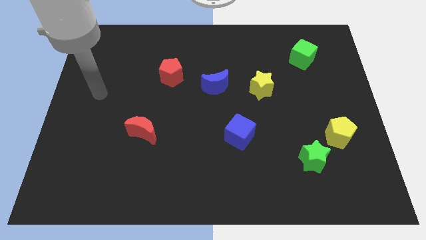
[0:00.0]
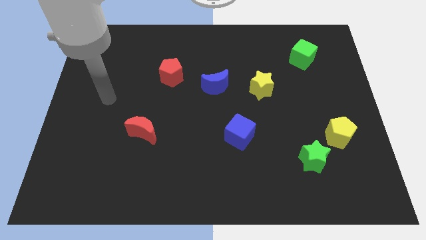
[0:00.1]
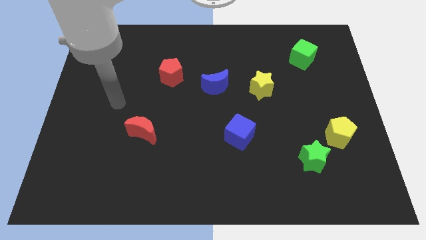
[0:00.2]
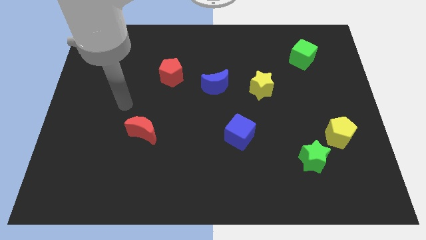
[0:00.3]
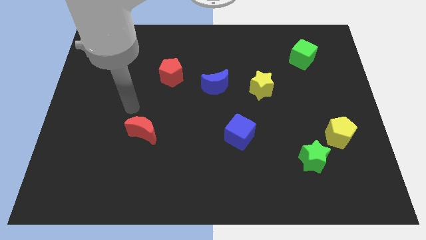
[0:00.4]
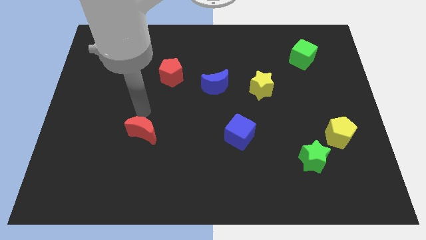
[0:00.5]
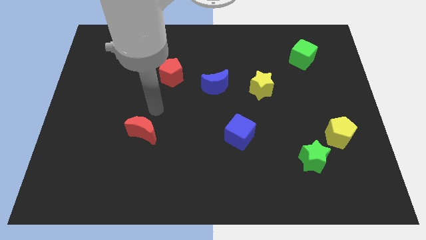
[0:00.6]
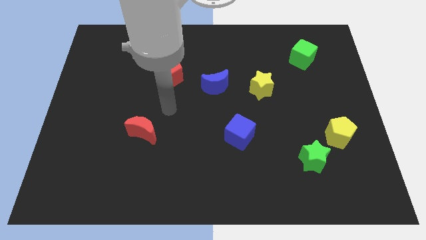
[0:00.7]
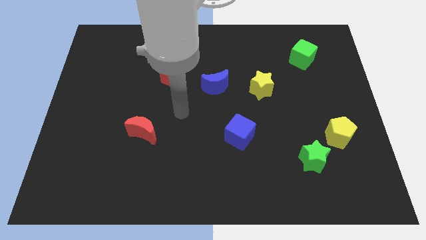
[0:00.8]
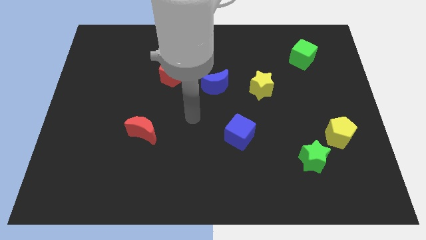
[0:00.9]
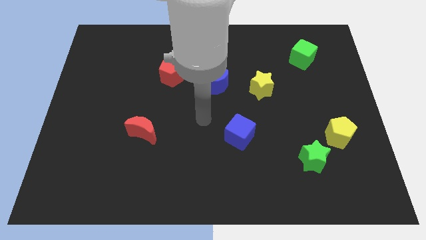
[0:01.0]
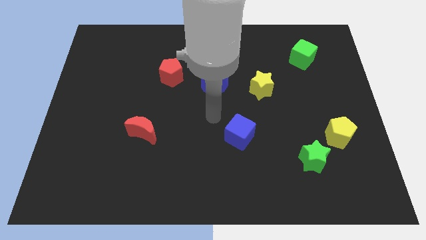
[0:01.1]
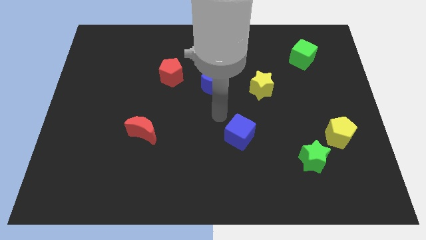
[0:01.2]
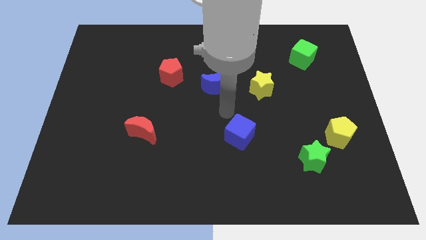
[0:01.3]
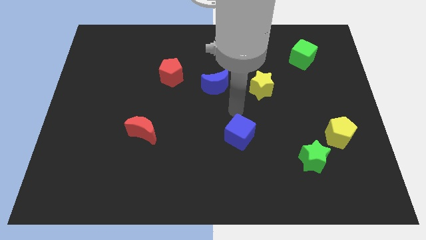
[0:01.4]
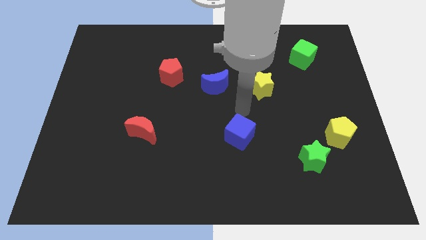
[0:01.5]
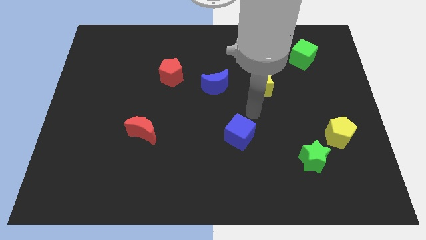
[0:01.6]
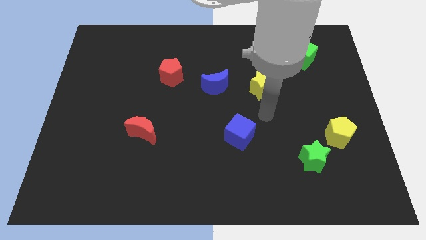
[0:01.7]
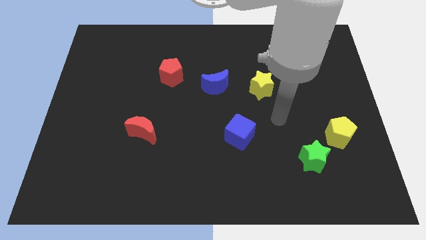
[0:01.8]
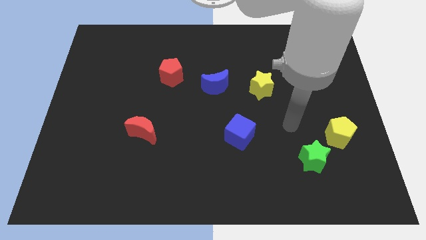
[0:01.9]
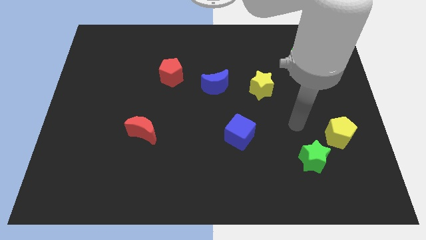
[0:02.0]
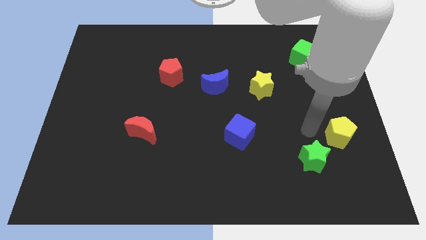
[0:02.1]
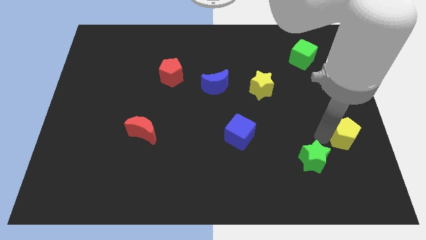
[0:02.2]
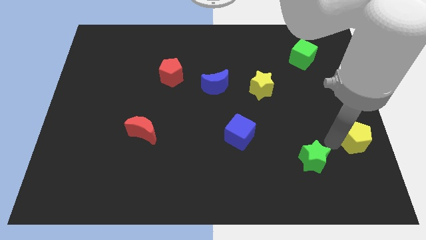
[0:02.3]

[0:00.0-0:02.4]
separate the green star from the yellow pentagon

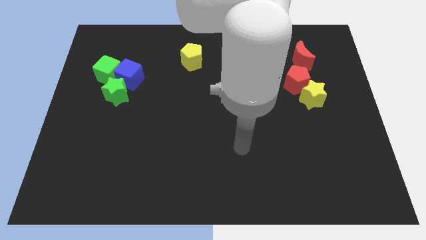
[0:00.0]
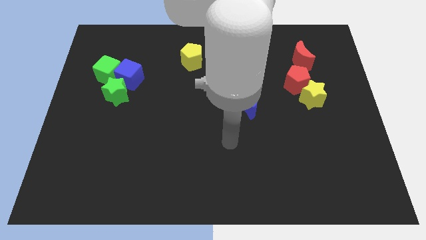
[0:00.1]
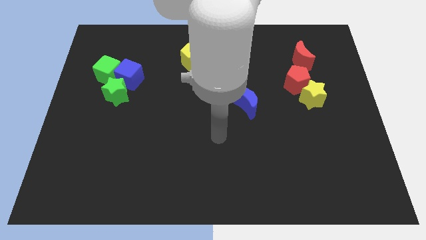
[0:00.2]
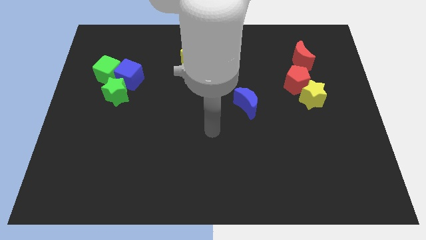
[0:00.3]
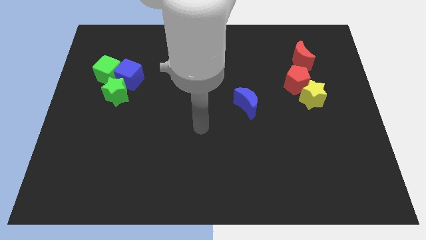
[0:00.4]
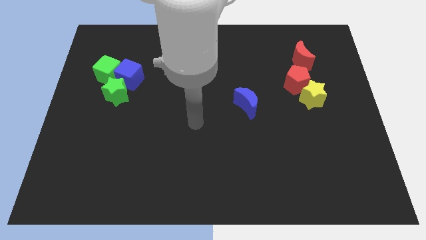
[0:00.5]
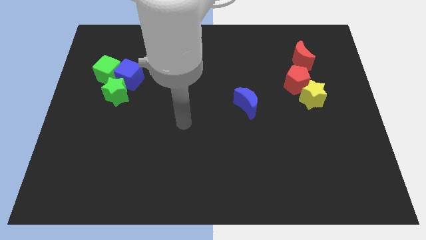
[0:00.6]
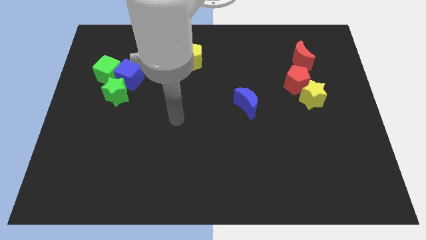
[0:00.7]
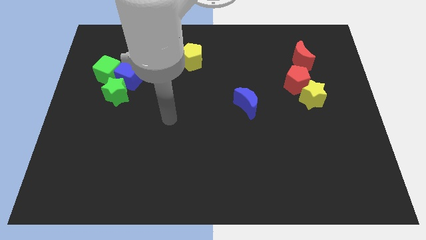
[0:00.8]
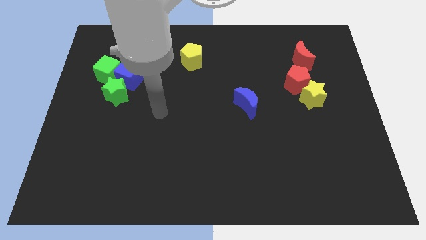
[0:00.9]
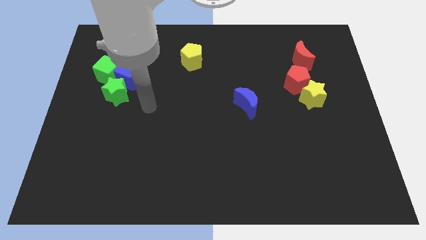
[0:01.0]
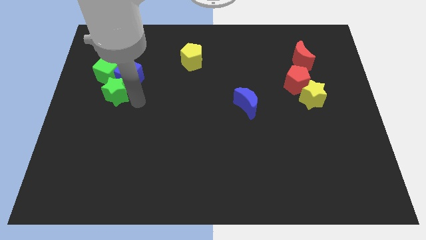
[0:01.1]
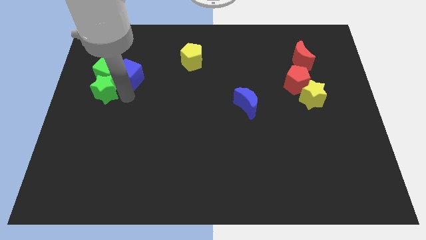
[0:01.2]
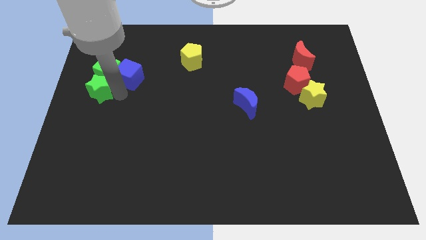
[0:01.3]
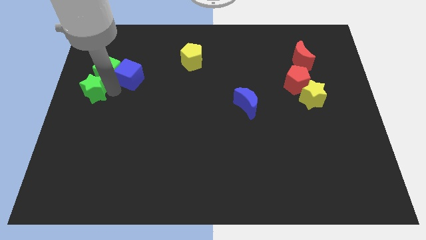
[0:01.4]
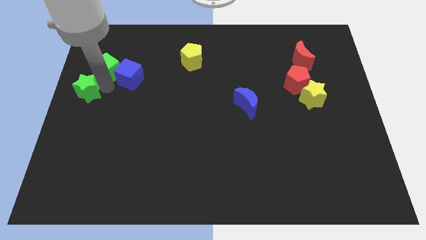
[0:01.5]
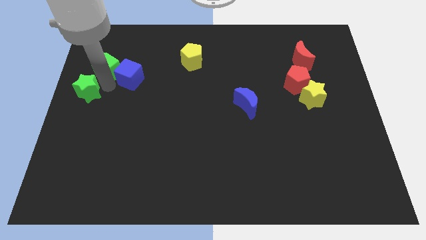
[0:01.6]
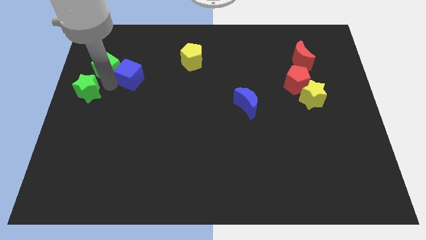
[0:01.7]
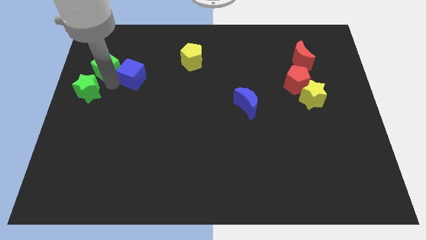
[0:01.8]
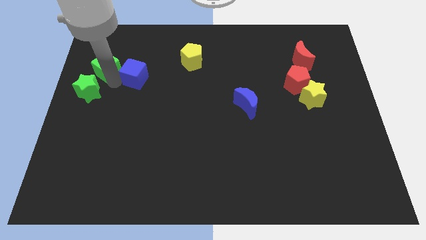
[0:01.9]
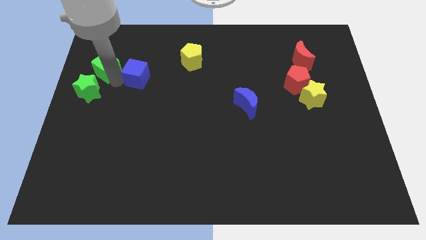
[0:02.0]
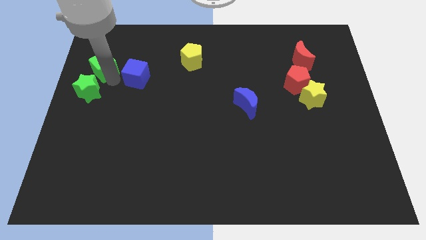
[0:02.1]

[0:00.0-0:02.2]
move the blue cube away from the green cube and green star

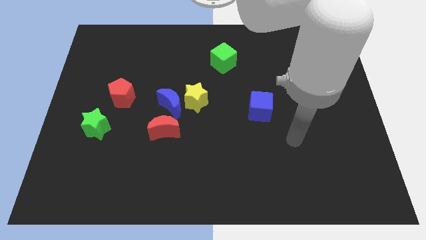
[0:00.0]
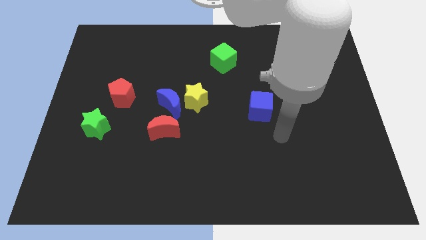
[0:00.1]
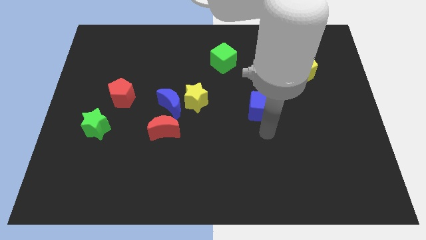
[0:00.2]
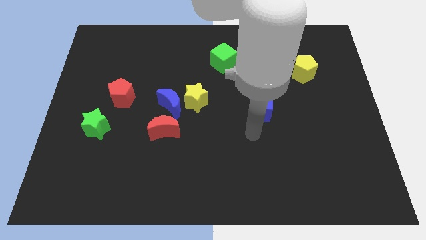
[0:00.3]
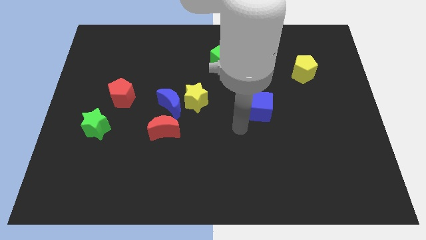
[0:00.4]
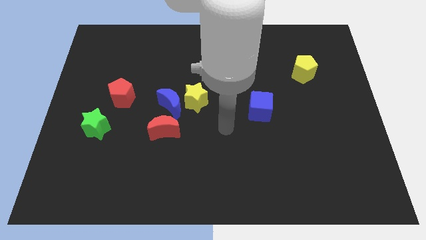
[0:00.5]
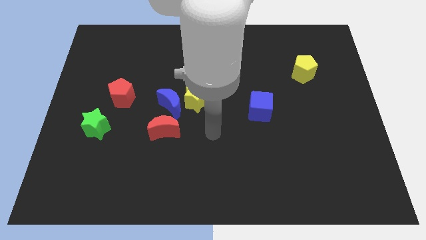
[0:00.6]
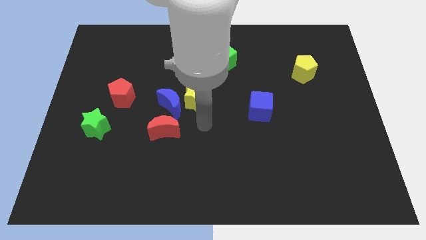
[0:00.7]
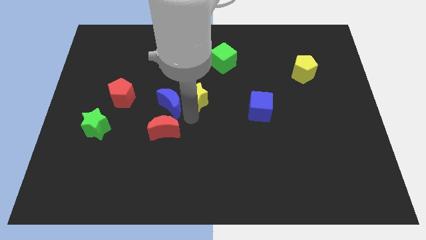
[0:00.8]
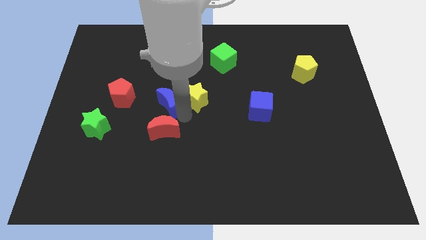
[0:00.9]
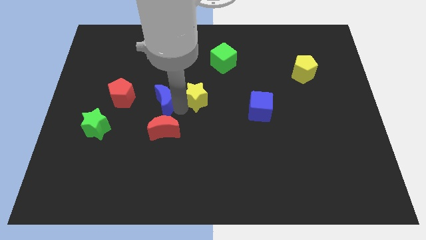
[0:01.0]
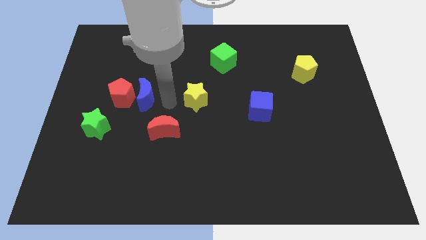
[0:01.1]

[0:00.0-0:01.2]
pull the yellow star apart from the blue moon

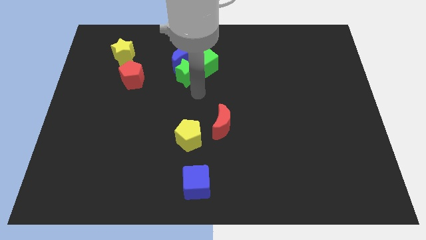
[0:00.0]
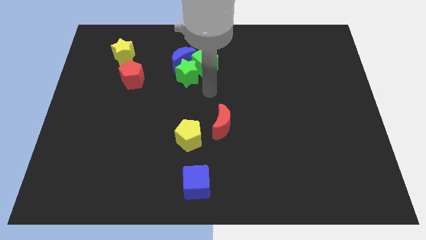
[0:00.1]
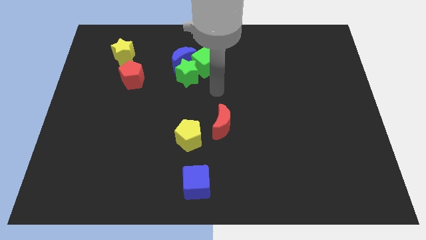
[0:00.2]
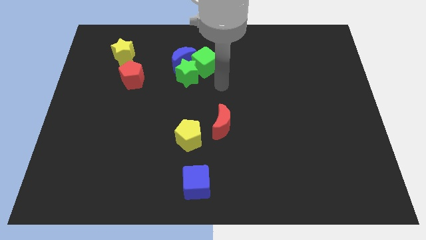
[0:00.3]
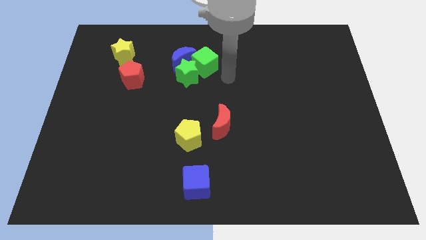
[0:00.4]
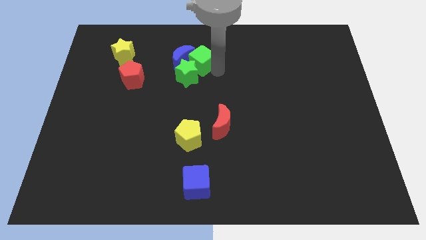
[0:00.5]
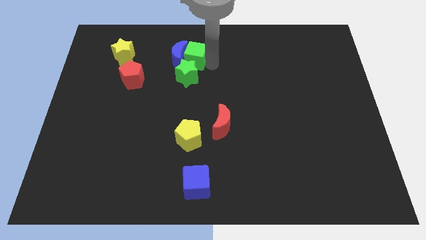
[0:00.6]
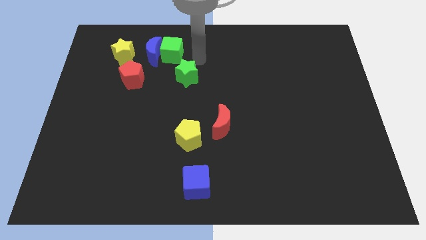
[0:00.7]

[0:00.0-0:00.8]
move the green star away from the blue moon and green cube

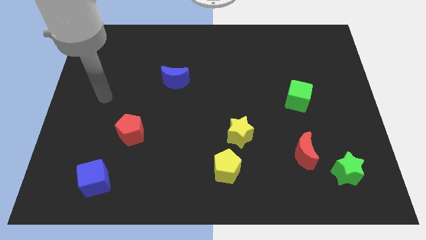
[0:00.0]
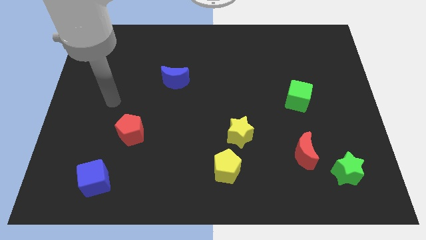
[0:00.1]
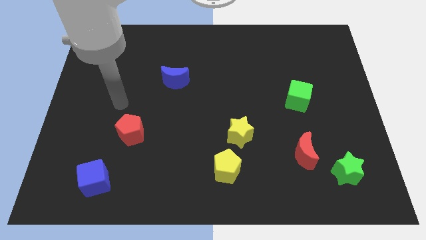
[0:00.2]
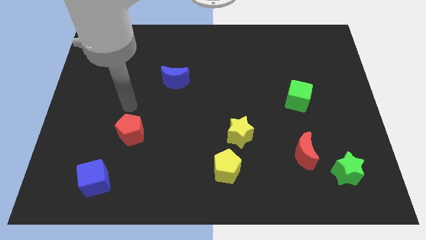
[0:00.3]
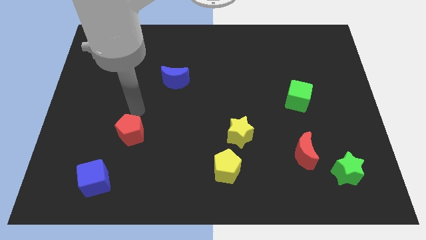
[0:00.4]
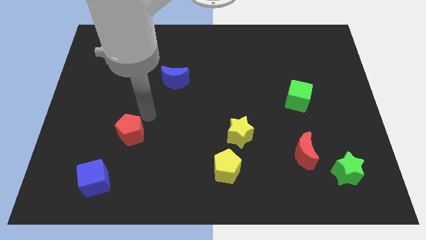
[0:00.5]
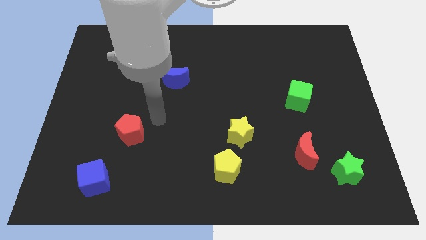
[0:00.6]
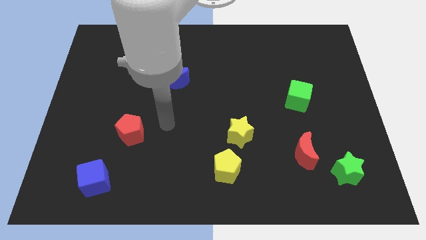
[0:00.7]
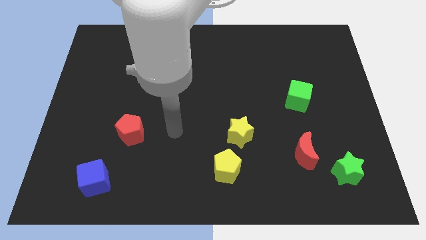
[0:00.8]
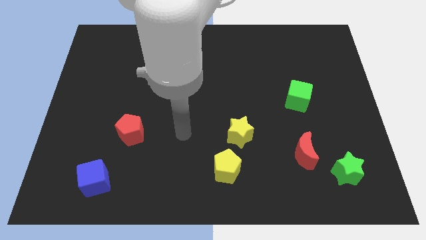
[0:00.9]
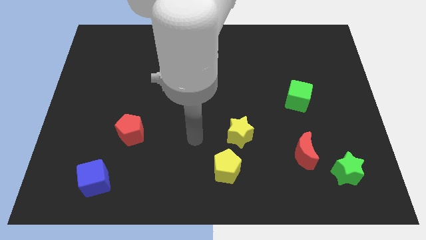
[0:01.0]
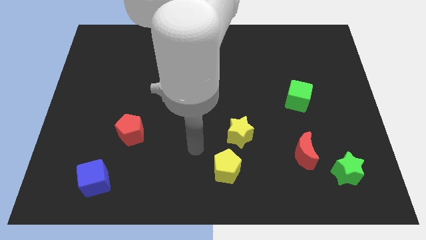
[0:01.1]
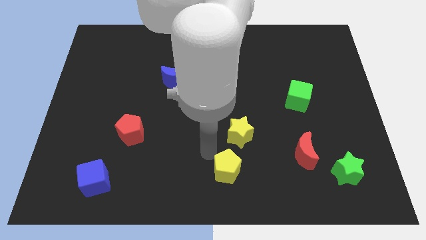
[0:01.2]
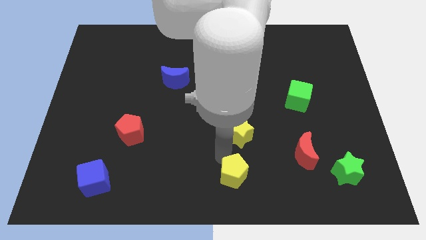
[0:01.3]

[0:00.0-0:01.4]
separate the yellow star from the yellow pentagon

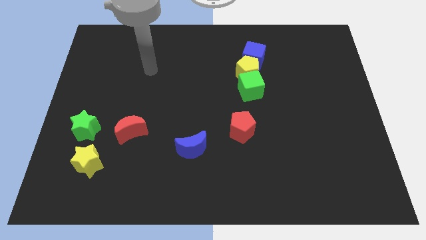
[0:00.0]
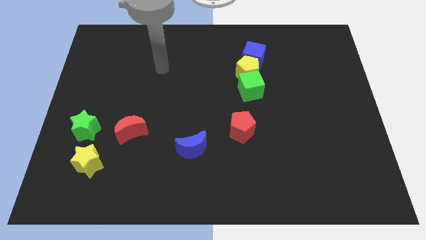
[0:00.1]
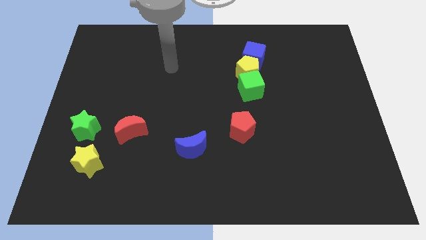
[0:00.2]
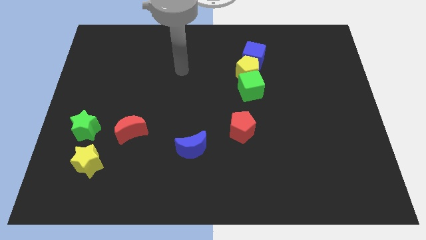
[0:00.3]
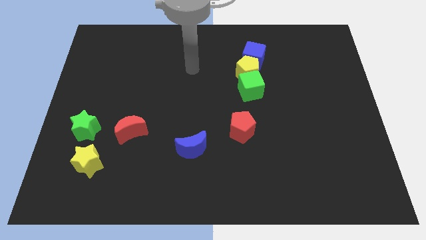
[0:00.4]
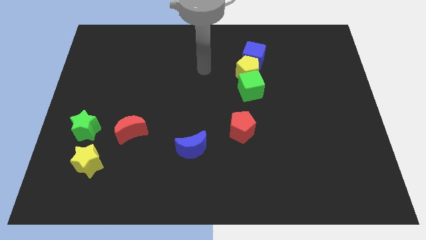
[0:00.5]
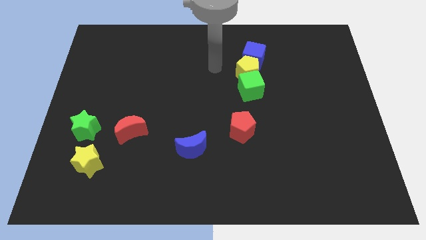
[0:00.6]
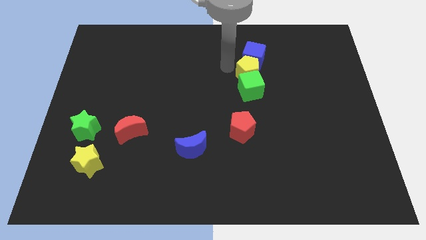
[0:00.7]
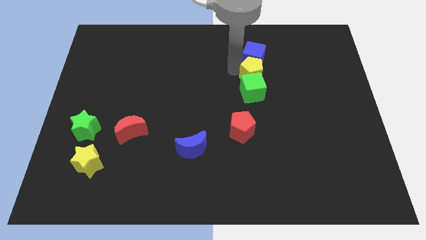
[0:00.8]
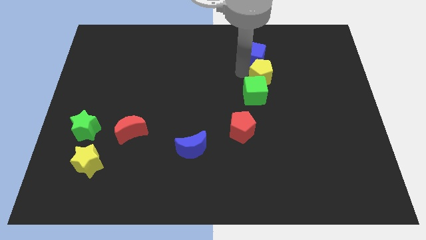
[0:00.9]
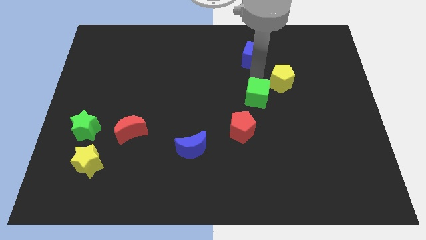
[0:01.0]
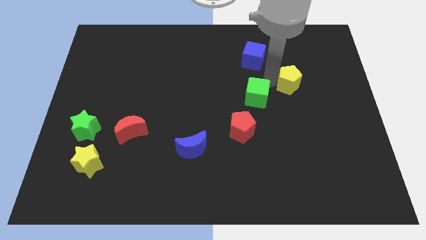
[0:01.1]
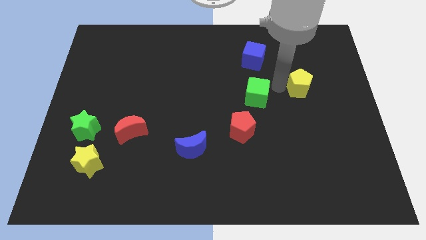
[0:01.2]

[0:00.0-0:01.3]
separate the green cube from the yellow pentagon

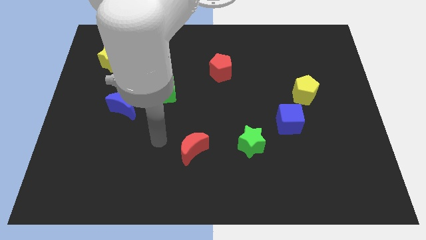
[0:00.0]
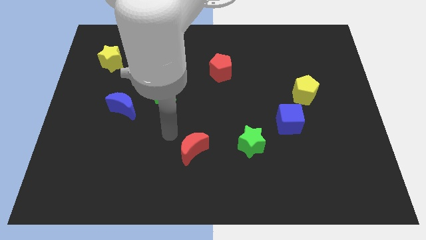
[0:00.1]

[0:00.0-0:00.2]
separate the blue cube from the yellow pentagon

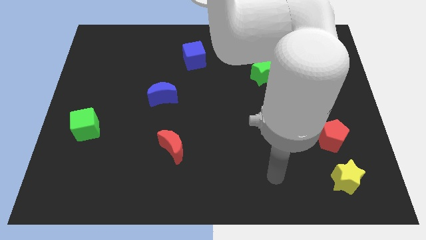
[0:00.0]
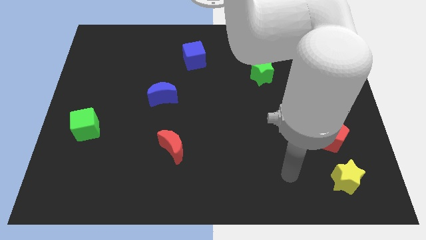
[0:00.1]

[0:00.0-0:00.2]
separate the red pentagon from the yellow star
